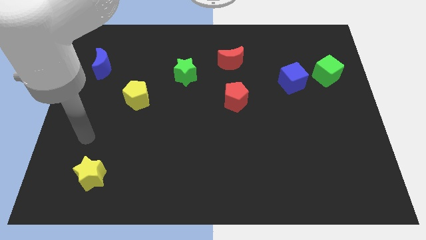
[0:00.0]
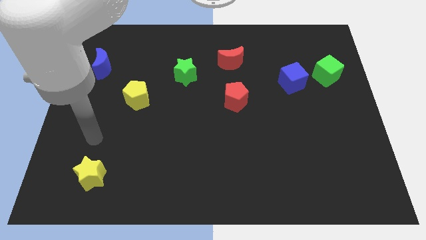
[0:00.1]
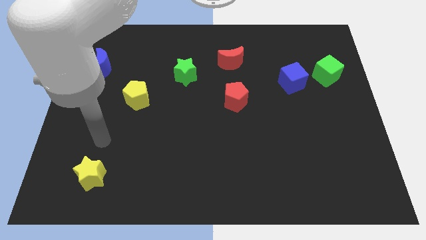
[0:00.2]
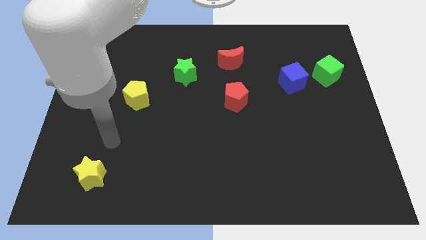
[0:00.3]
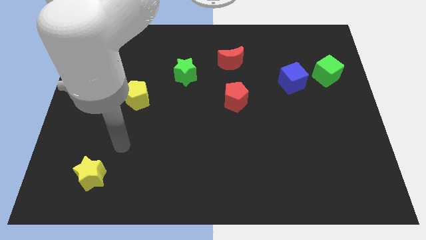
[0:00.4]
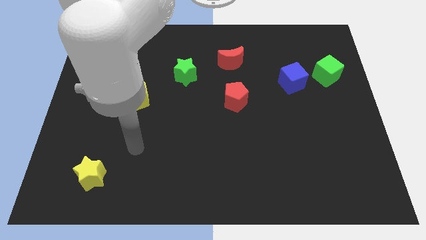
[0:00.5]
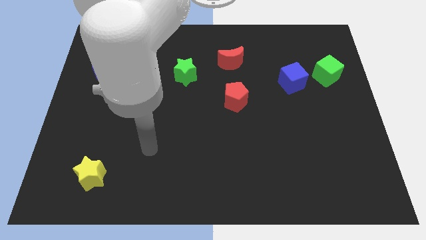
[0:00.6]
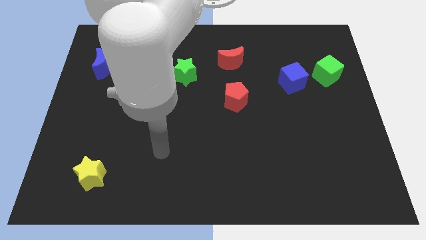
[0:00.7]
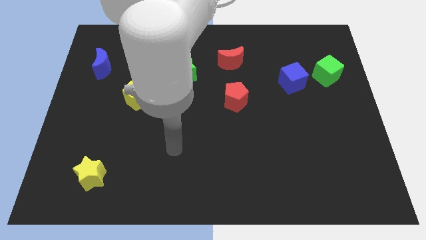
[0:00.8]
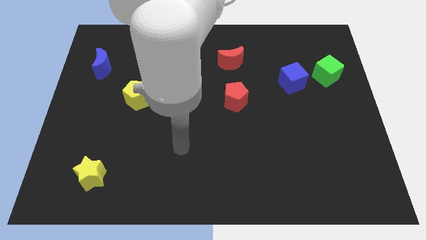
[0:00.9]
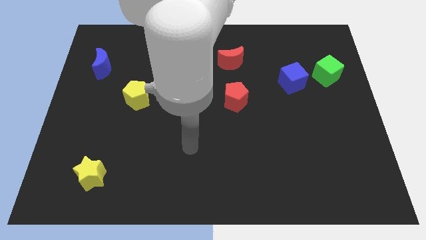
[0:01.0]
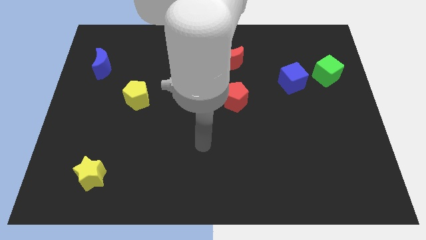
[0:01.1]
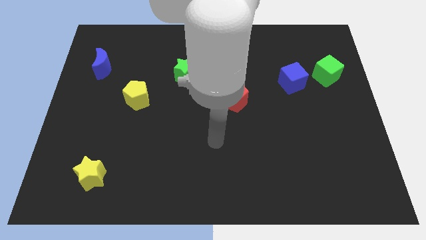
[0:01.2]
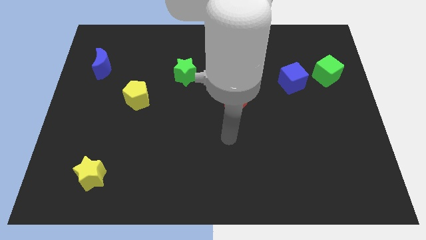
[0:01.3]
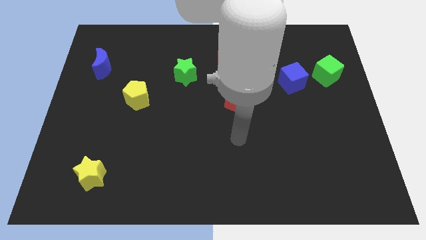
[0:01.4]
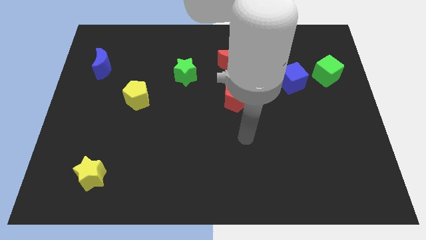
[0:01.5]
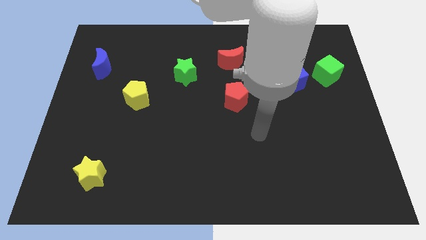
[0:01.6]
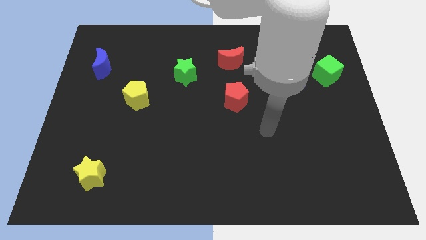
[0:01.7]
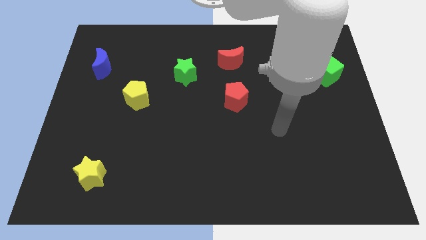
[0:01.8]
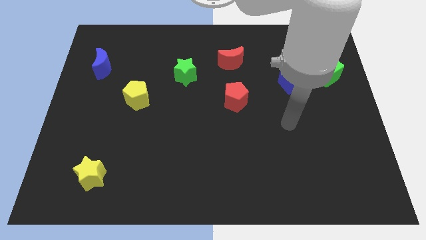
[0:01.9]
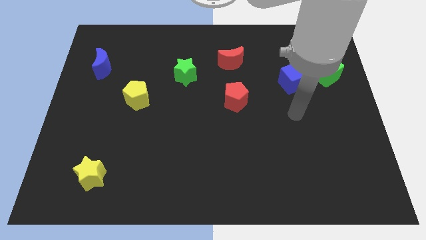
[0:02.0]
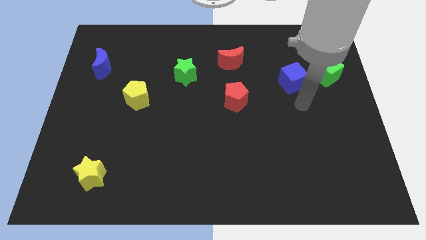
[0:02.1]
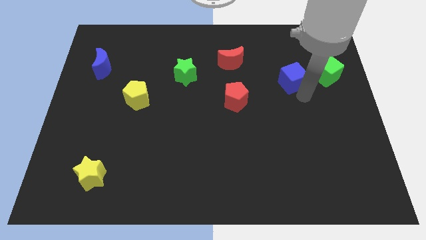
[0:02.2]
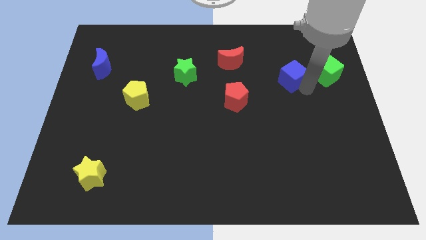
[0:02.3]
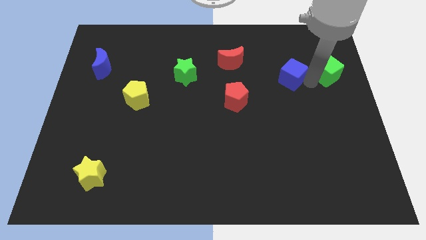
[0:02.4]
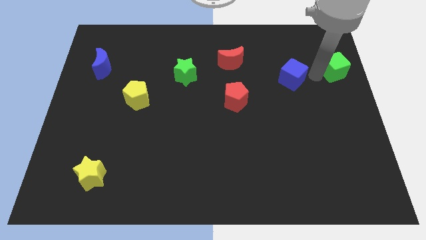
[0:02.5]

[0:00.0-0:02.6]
separate the blue cube from the green cube

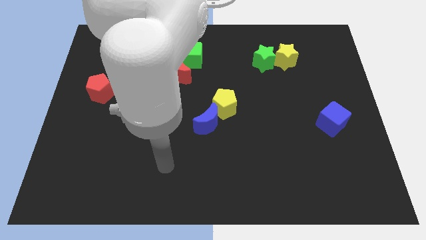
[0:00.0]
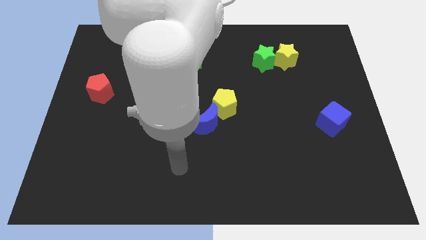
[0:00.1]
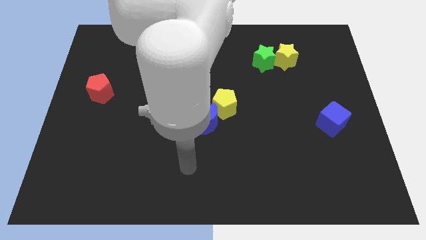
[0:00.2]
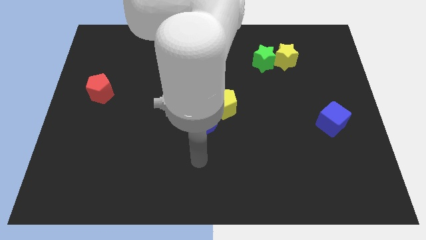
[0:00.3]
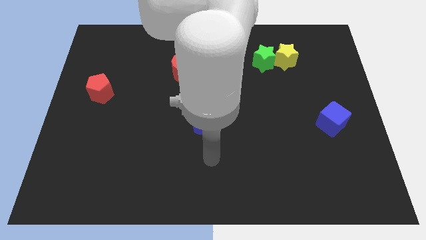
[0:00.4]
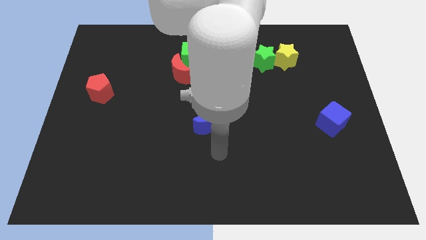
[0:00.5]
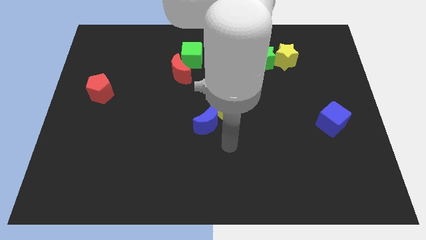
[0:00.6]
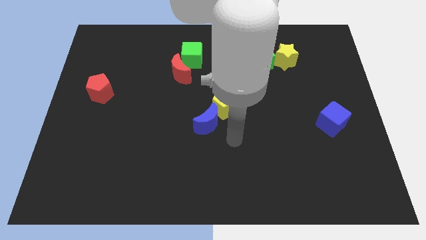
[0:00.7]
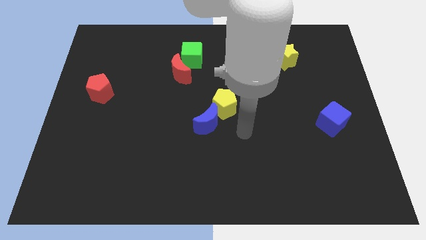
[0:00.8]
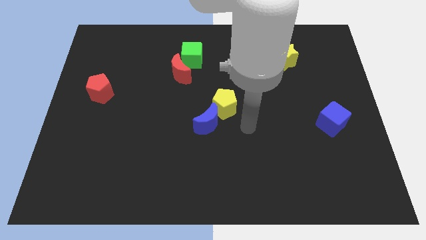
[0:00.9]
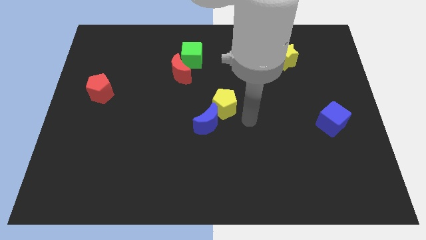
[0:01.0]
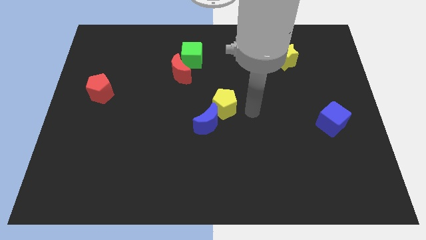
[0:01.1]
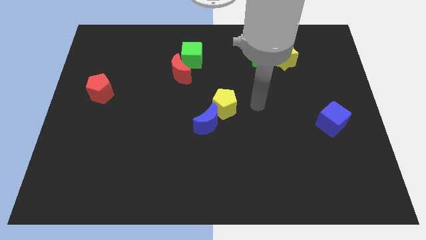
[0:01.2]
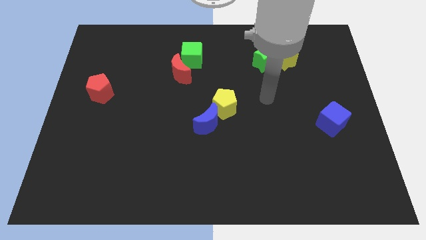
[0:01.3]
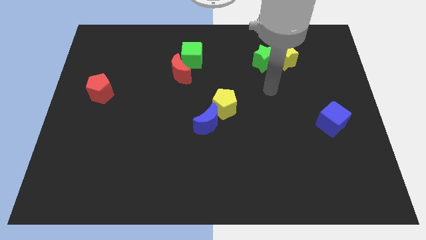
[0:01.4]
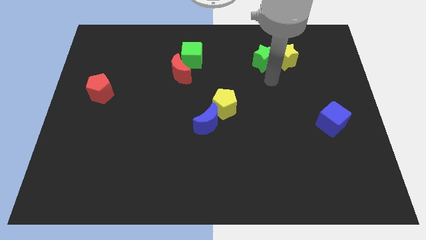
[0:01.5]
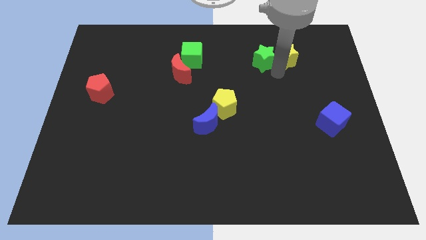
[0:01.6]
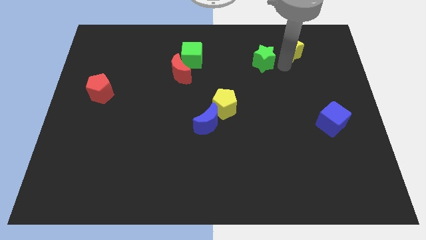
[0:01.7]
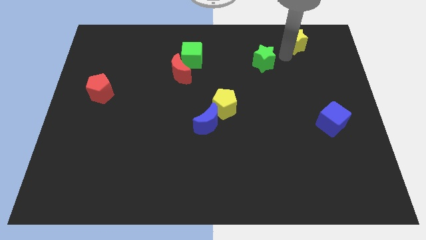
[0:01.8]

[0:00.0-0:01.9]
separate the green star from the yellow star

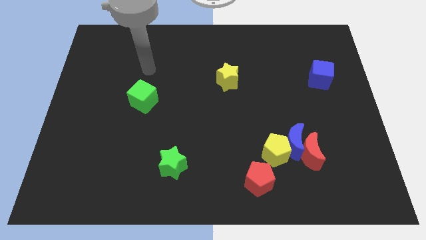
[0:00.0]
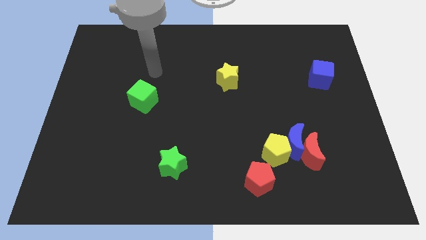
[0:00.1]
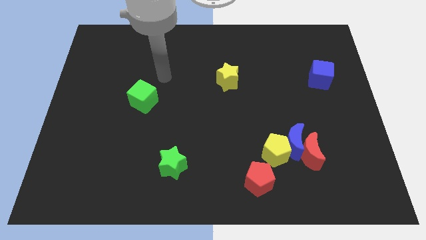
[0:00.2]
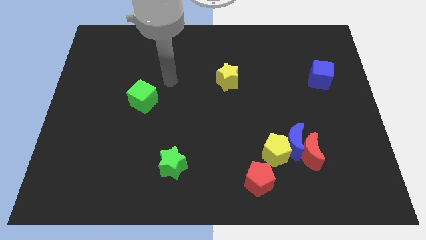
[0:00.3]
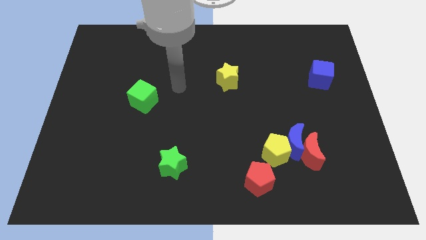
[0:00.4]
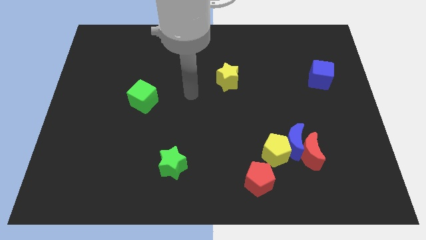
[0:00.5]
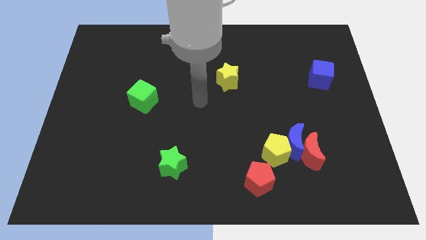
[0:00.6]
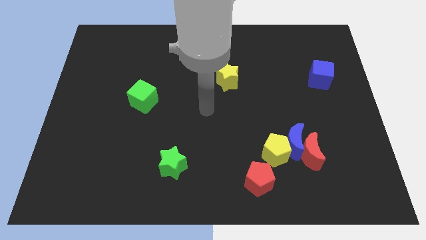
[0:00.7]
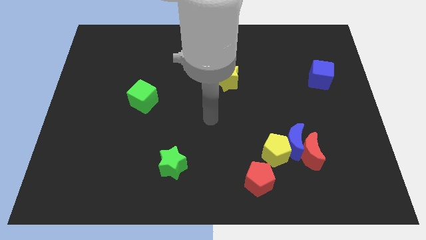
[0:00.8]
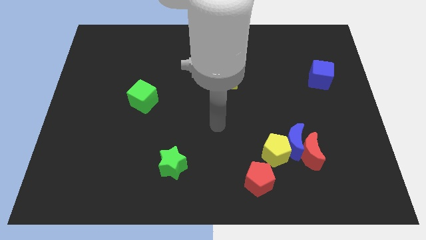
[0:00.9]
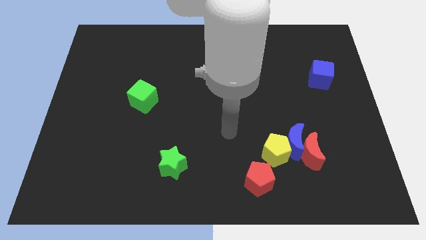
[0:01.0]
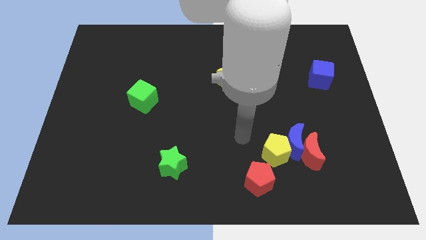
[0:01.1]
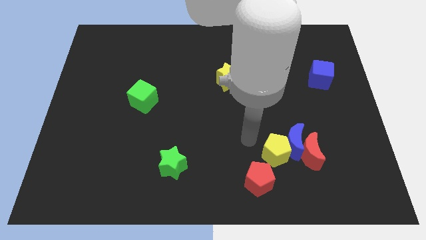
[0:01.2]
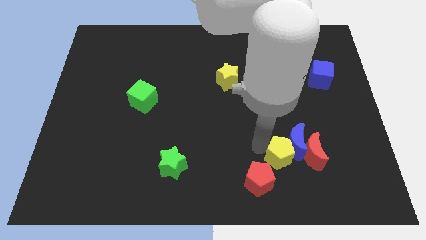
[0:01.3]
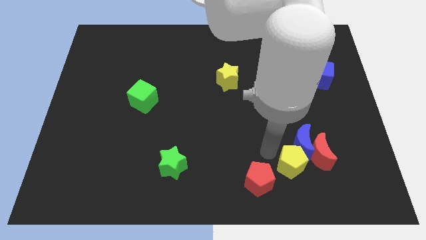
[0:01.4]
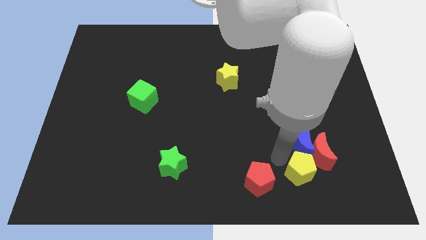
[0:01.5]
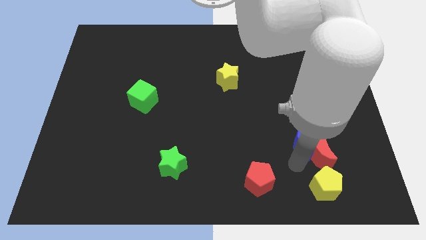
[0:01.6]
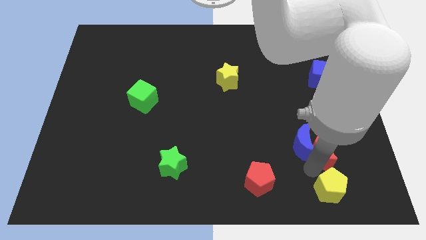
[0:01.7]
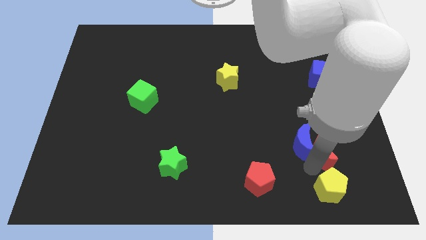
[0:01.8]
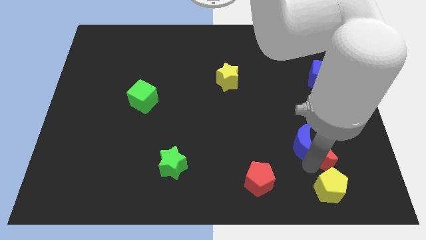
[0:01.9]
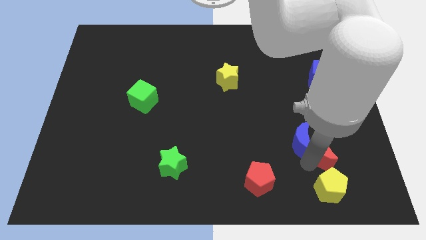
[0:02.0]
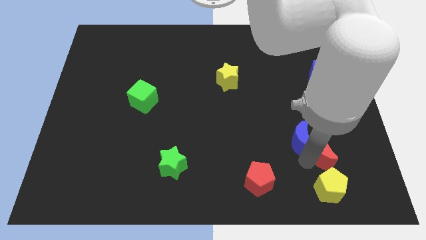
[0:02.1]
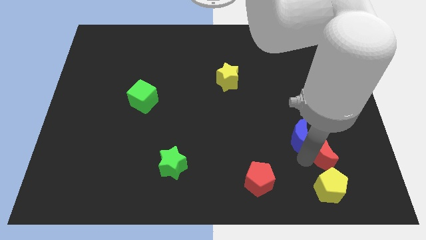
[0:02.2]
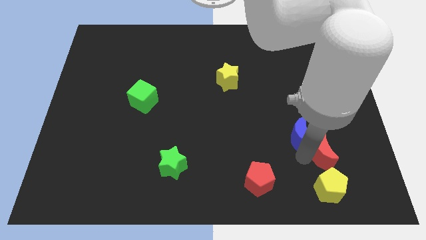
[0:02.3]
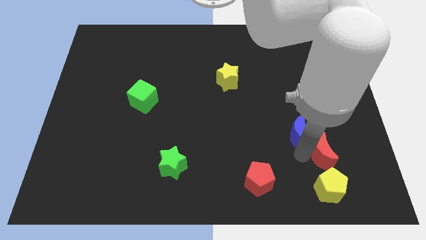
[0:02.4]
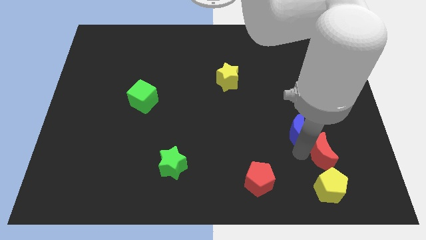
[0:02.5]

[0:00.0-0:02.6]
move the blue moon away from the red moon and yellow pentagon

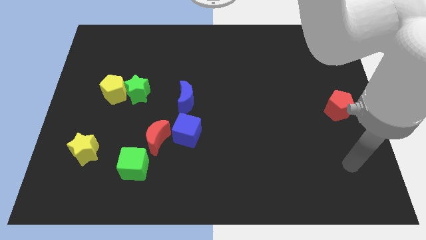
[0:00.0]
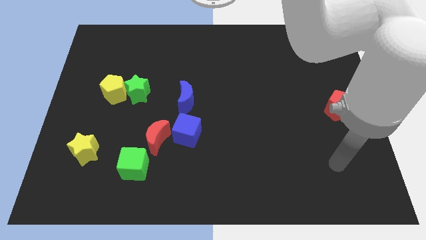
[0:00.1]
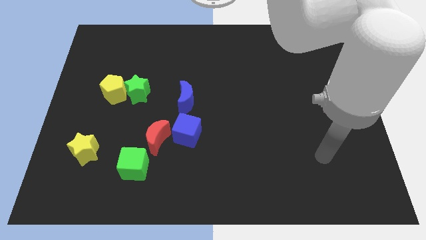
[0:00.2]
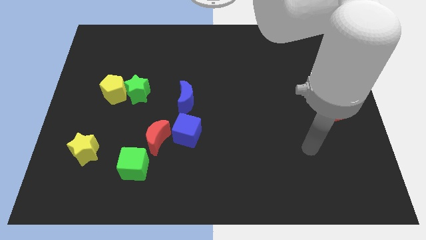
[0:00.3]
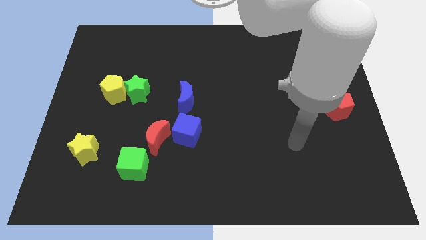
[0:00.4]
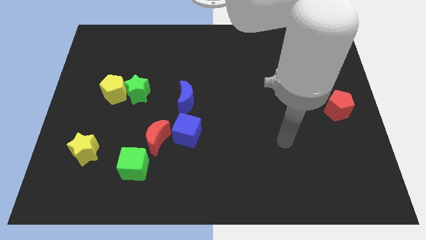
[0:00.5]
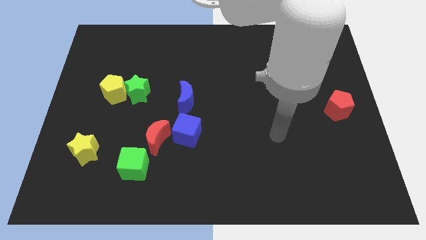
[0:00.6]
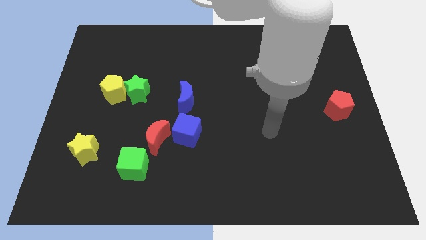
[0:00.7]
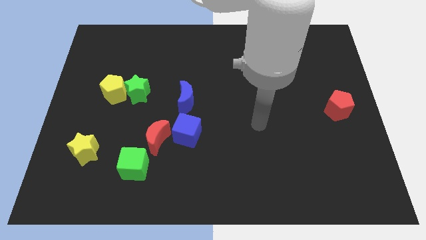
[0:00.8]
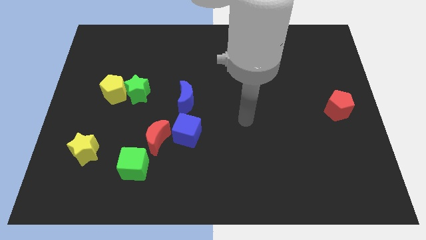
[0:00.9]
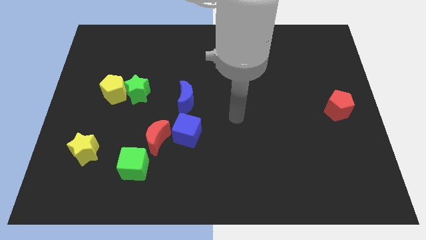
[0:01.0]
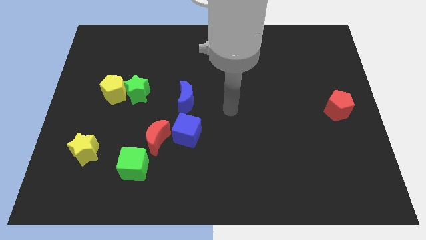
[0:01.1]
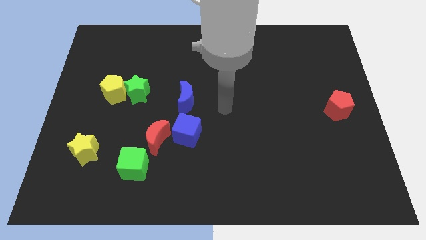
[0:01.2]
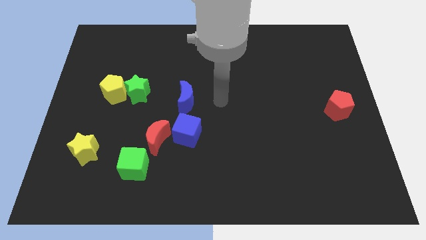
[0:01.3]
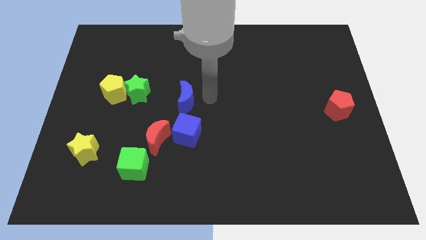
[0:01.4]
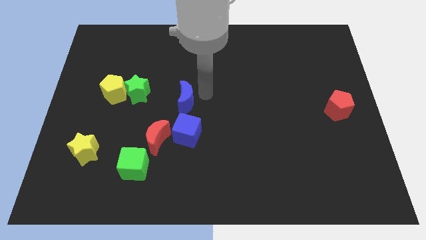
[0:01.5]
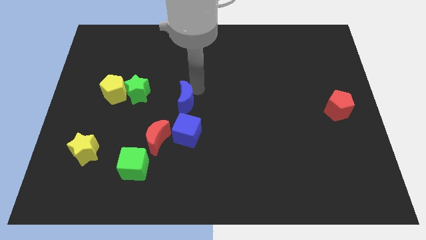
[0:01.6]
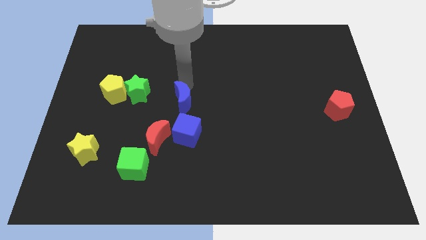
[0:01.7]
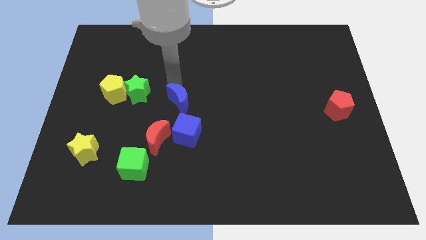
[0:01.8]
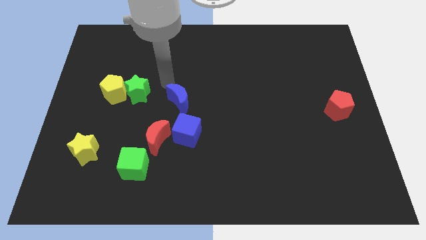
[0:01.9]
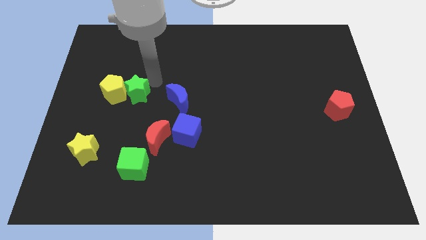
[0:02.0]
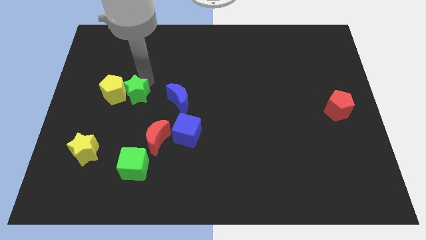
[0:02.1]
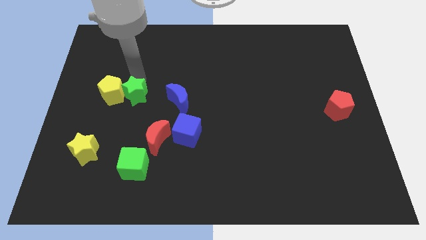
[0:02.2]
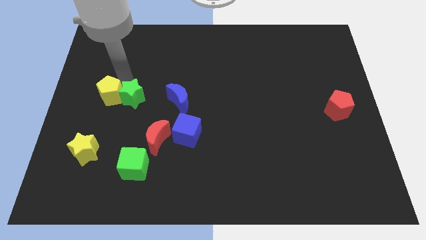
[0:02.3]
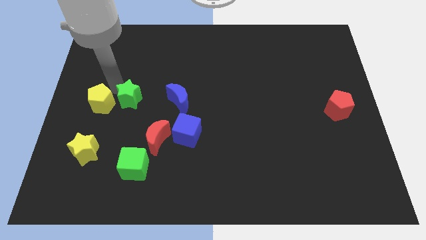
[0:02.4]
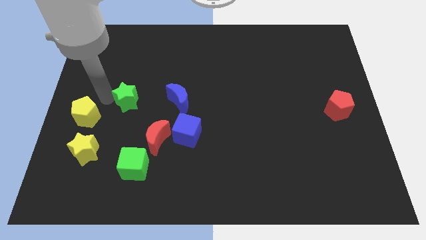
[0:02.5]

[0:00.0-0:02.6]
pull the green star apart from the yellow pentagon
